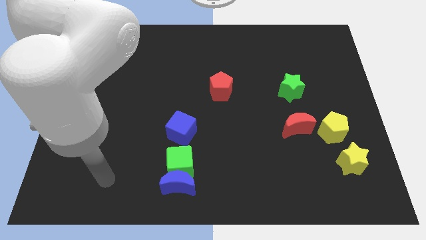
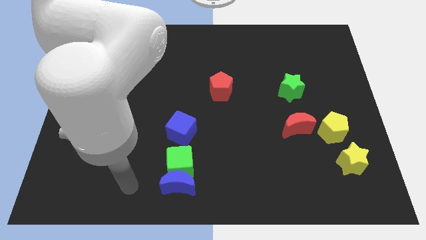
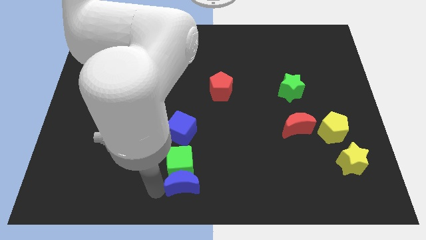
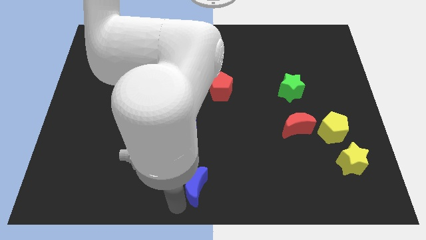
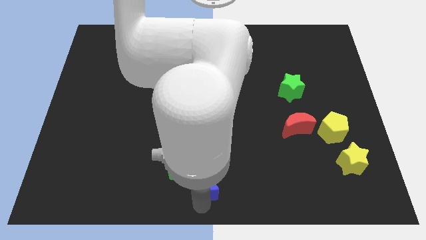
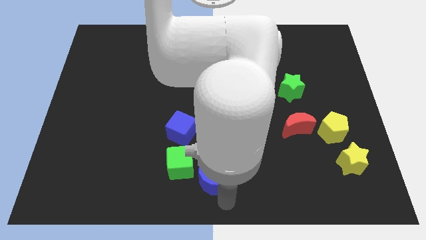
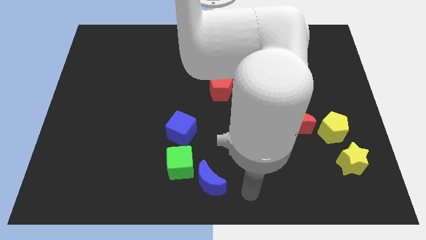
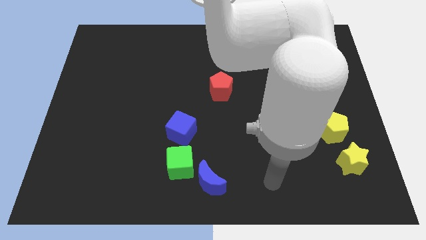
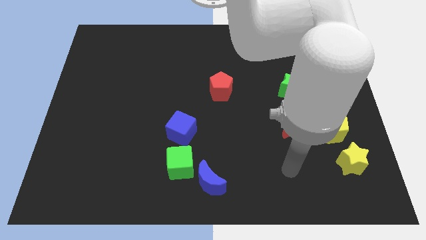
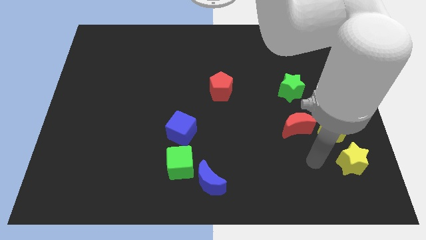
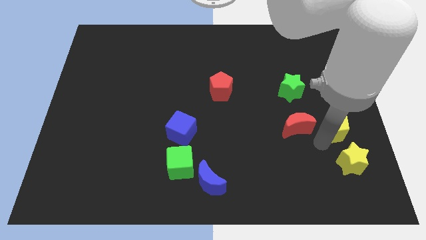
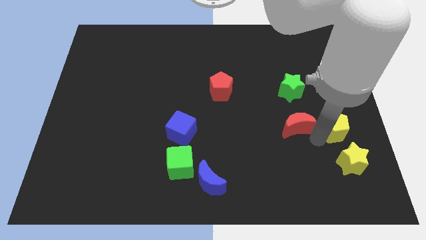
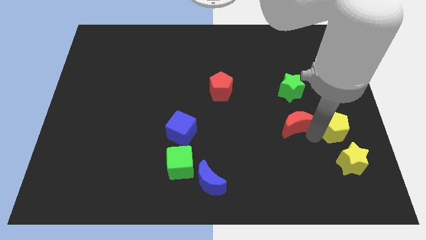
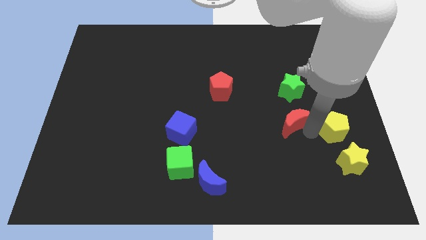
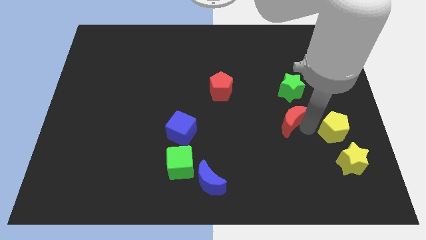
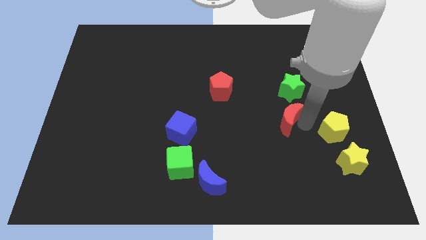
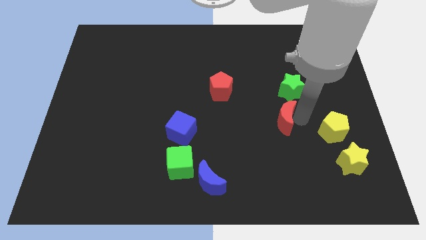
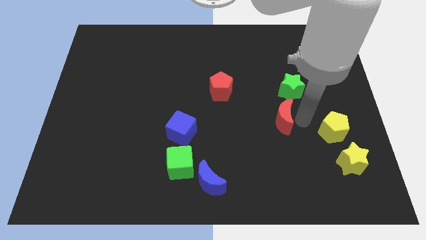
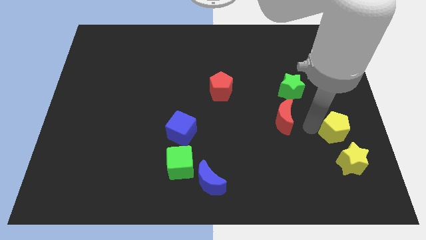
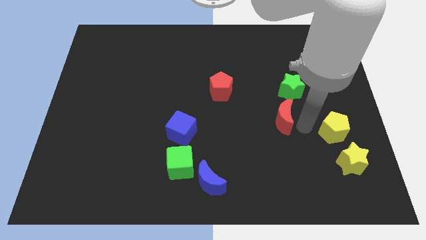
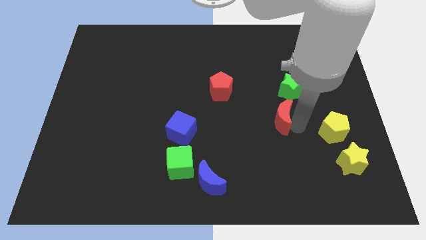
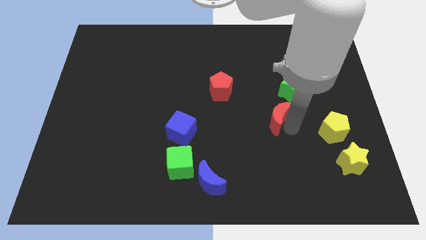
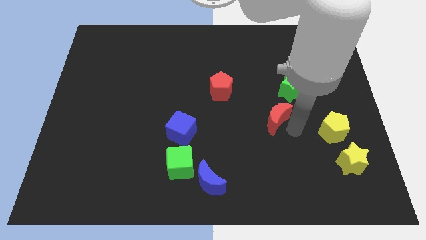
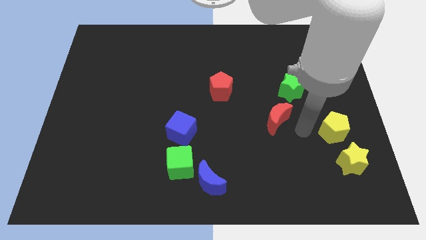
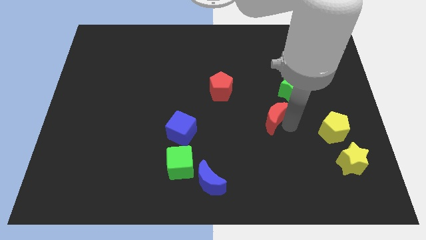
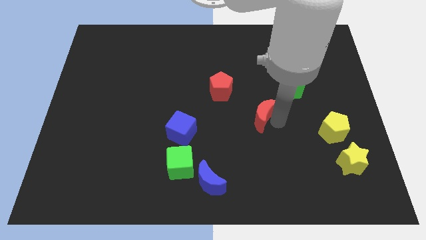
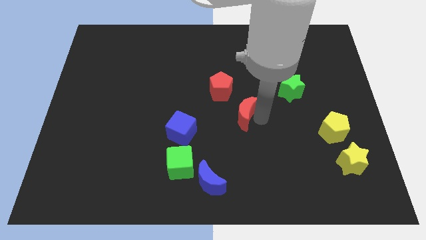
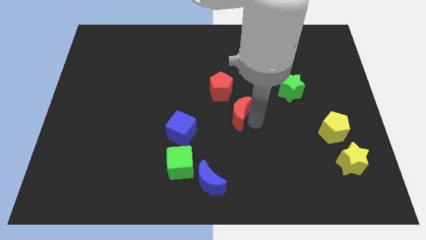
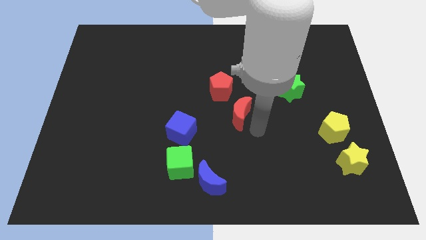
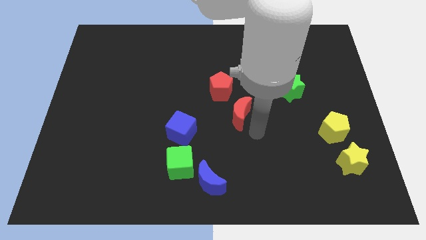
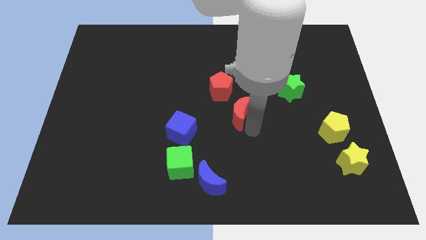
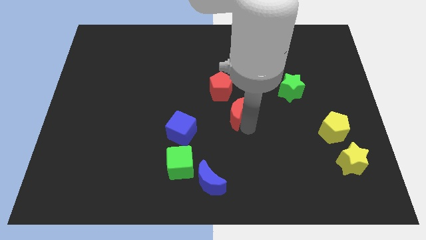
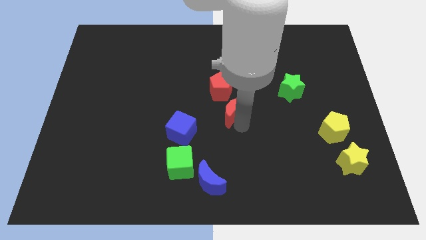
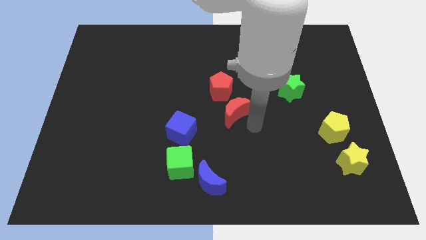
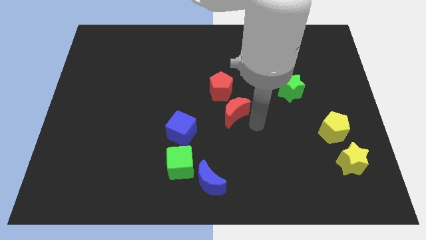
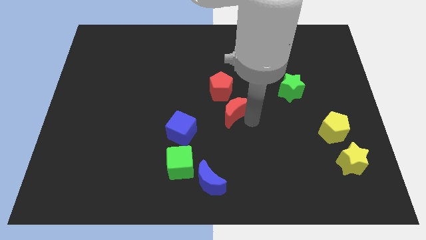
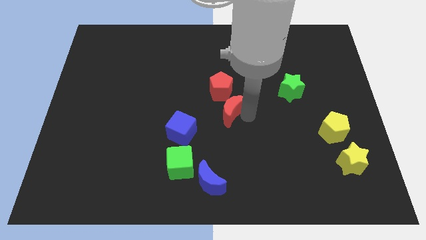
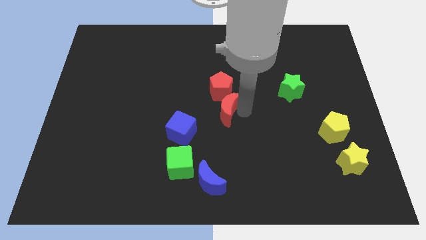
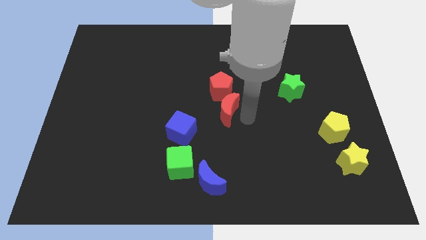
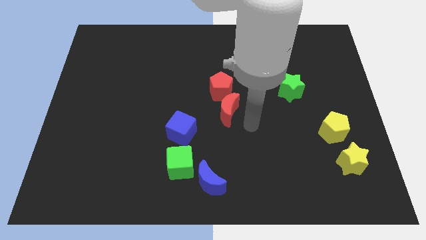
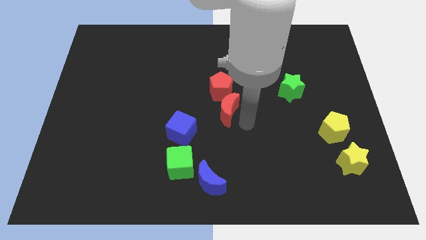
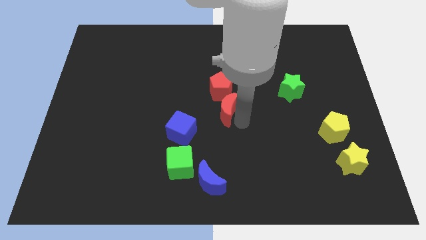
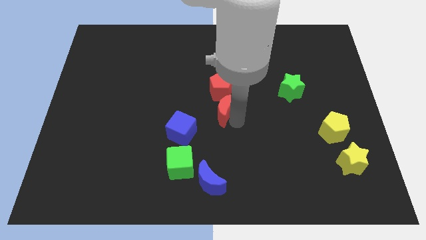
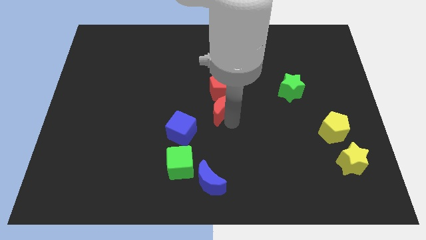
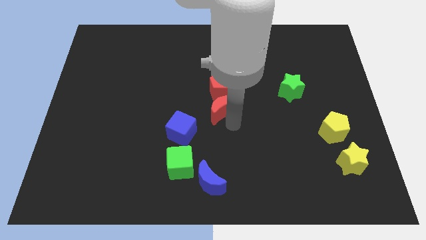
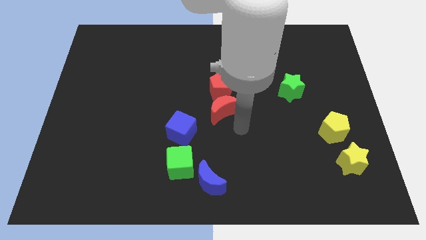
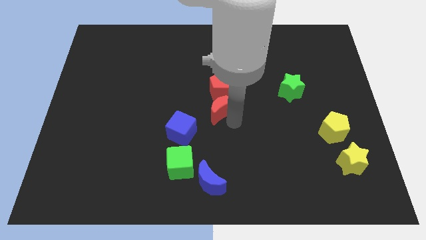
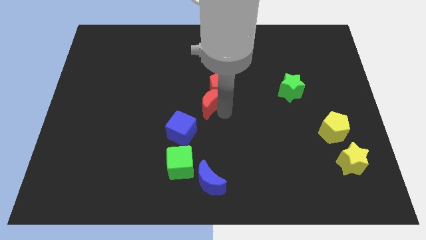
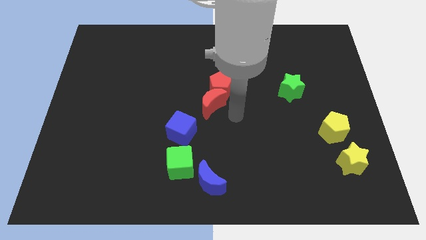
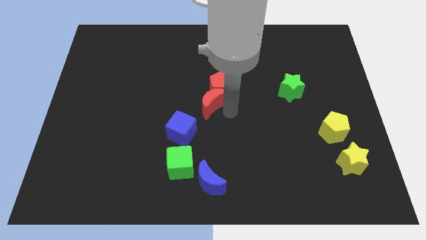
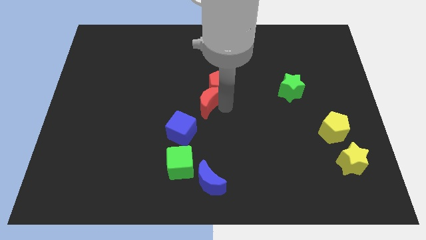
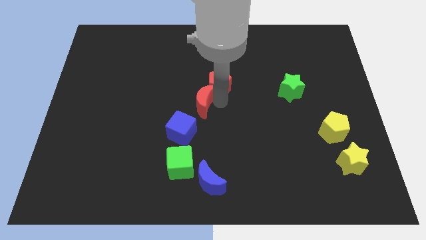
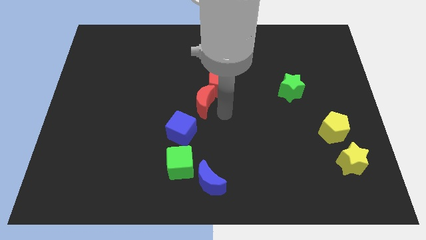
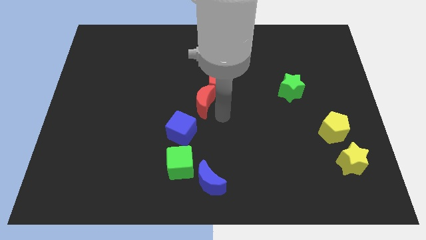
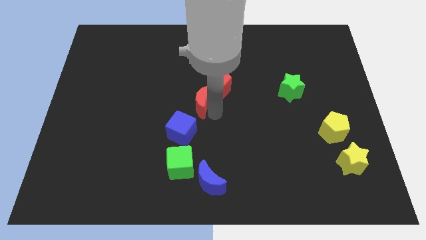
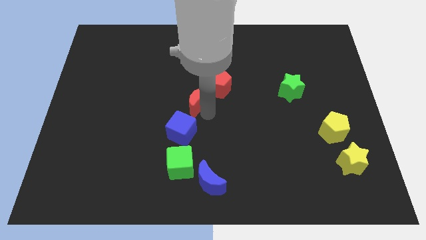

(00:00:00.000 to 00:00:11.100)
put the red moon just left of the red pentagon

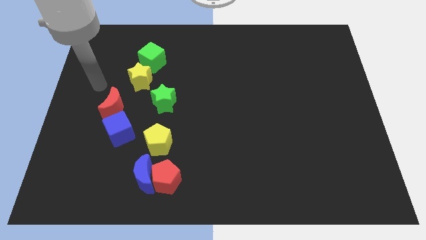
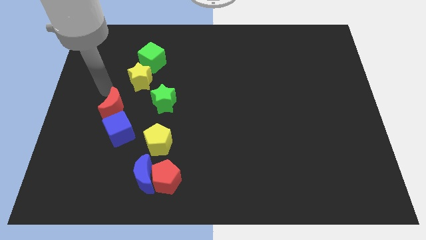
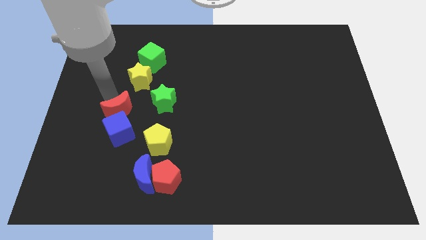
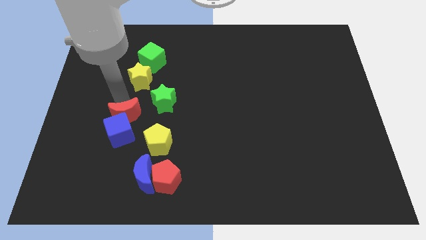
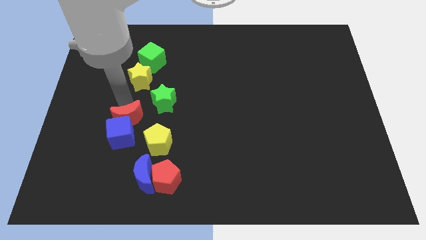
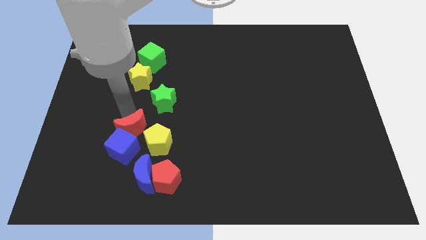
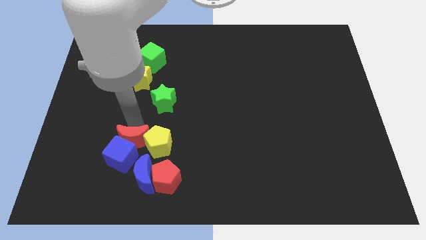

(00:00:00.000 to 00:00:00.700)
push the blue cube left of the blue moon
